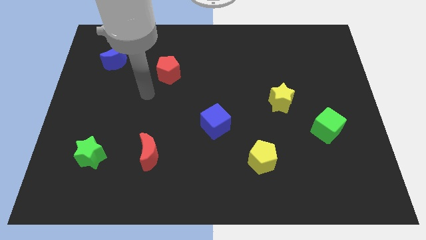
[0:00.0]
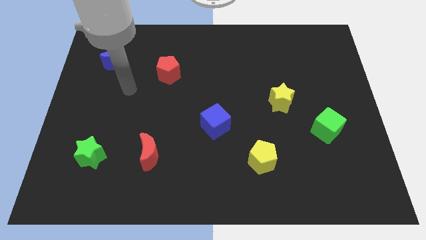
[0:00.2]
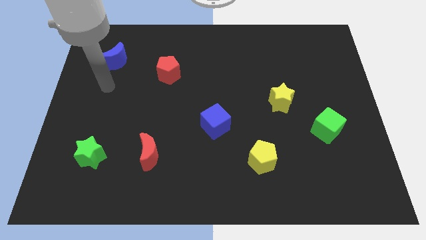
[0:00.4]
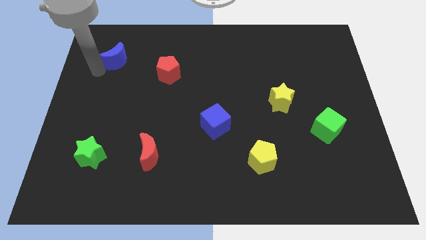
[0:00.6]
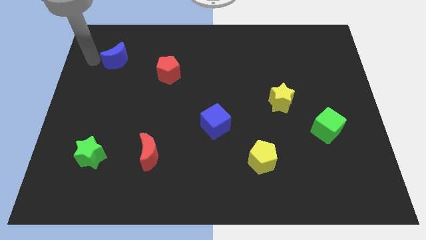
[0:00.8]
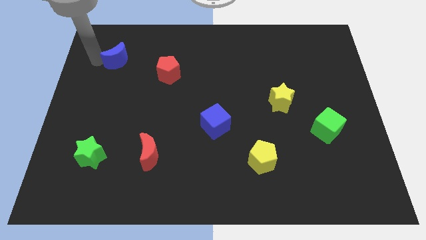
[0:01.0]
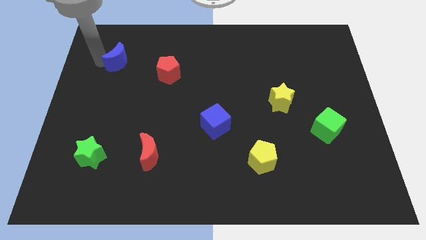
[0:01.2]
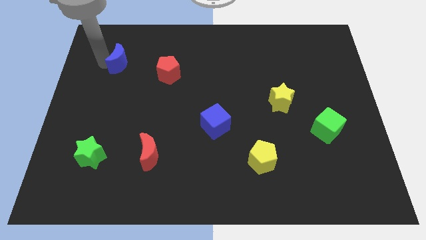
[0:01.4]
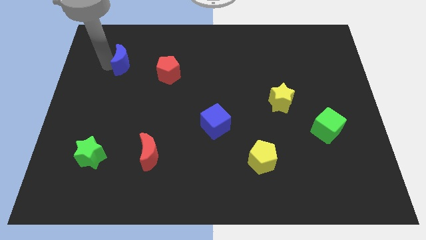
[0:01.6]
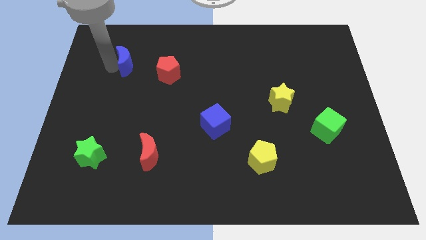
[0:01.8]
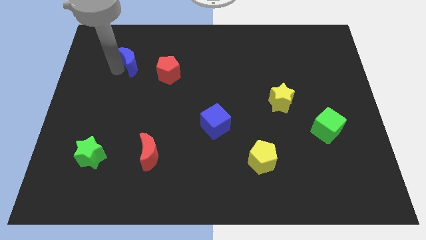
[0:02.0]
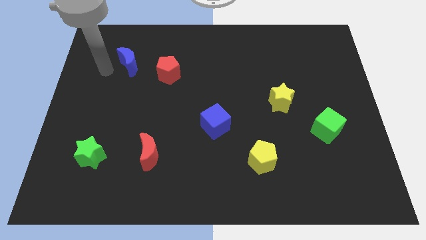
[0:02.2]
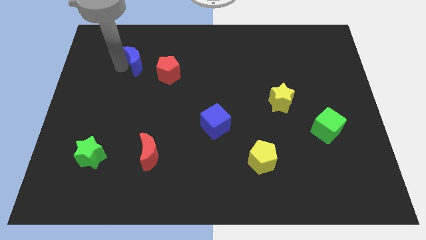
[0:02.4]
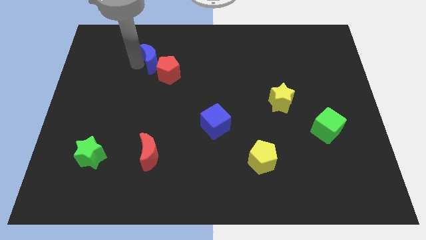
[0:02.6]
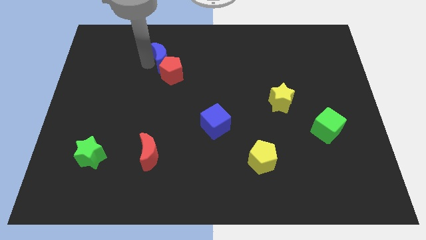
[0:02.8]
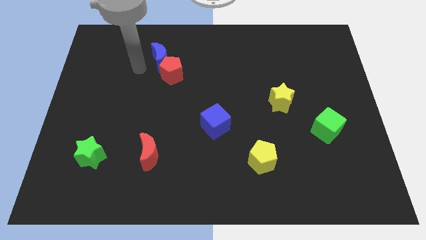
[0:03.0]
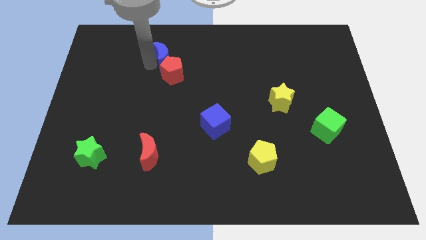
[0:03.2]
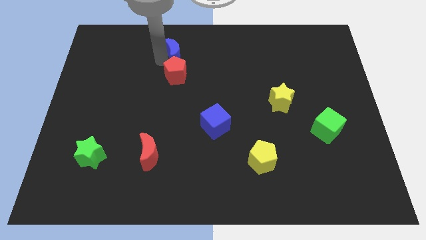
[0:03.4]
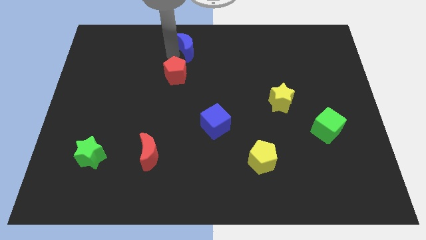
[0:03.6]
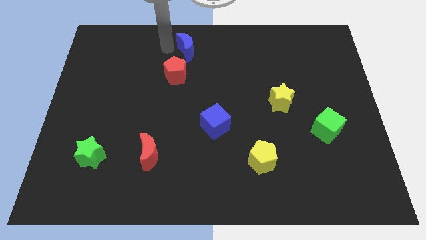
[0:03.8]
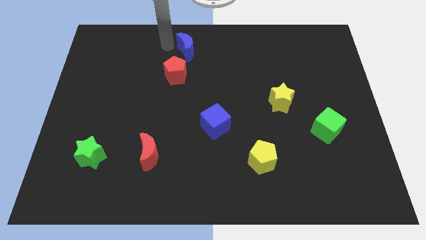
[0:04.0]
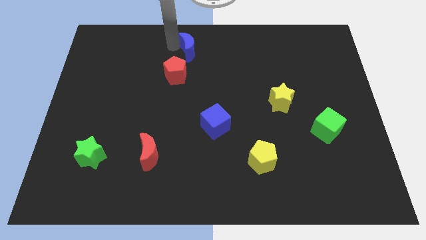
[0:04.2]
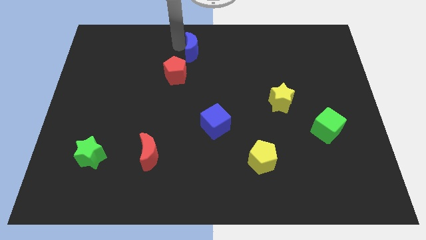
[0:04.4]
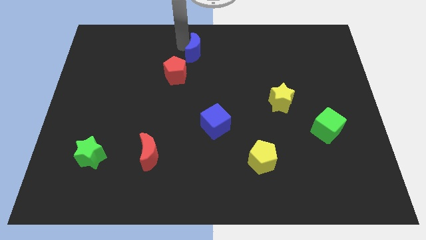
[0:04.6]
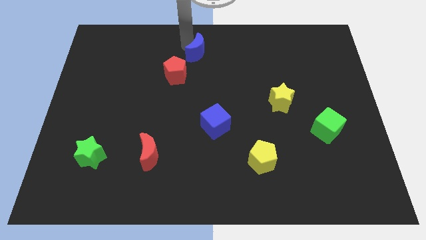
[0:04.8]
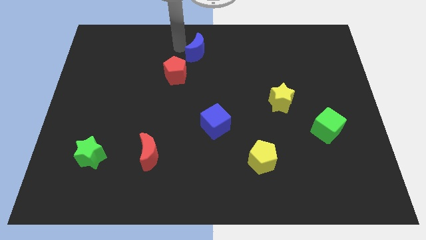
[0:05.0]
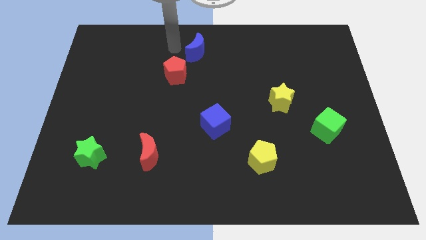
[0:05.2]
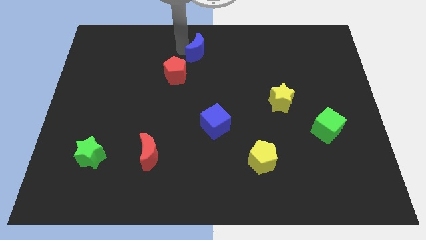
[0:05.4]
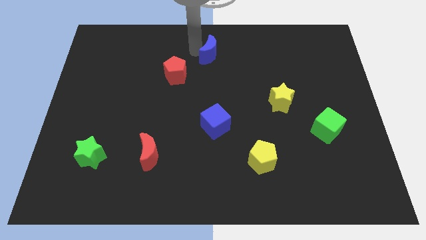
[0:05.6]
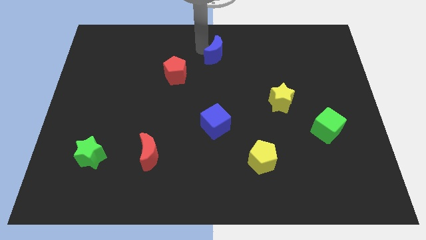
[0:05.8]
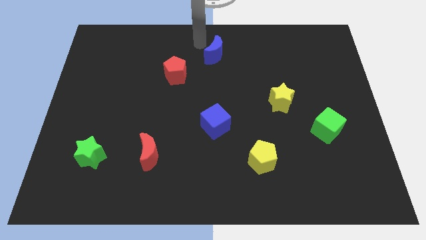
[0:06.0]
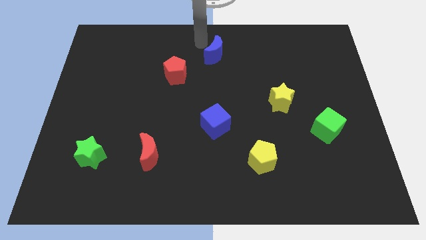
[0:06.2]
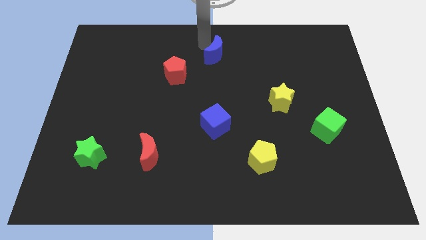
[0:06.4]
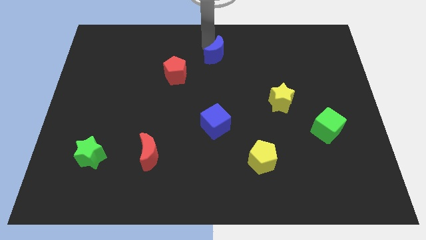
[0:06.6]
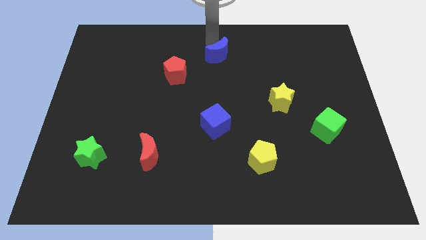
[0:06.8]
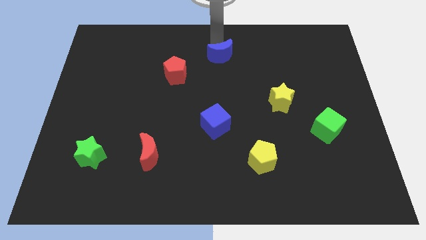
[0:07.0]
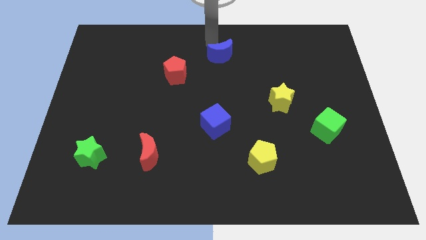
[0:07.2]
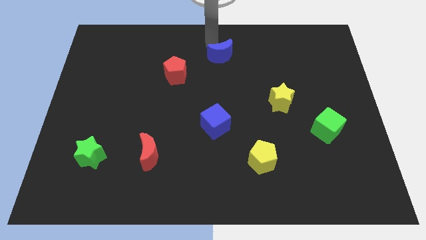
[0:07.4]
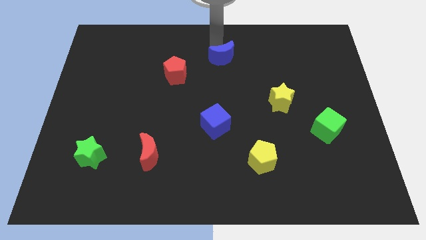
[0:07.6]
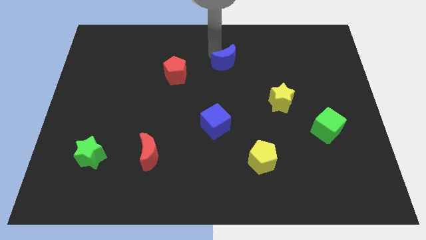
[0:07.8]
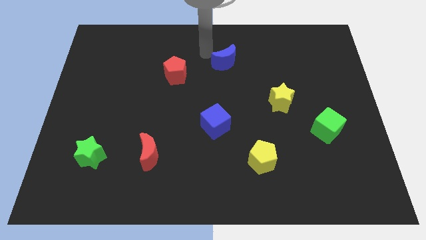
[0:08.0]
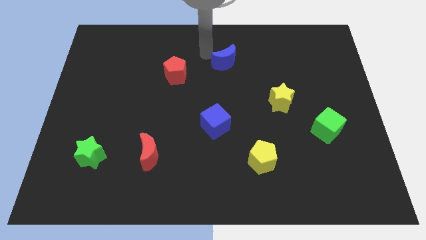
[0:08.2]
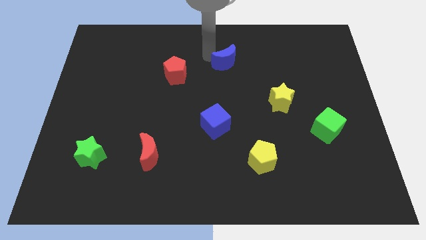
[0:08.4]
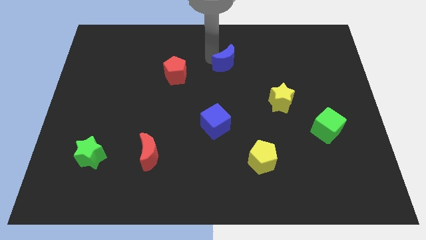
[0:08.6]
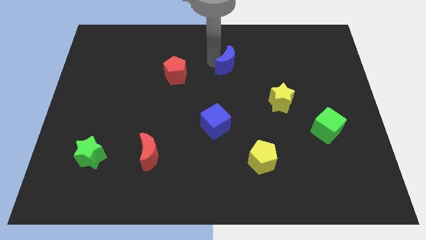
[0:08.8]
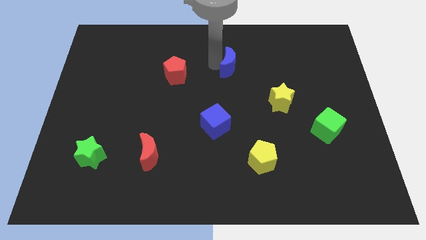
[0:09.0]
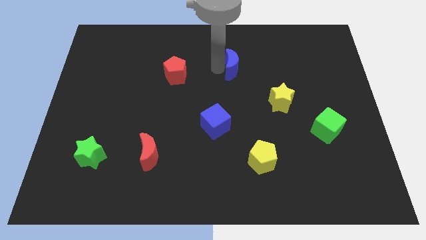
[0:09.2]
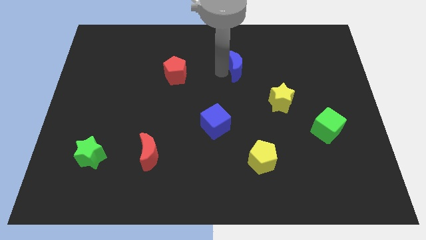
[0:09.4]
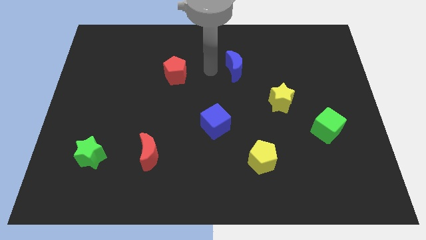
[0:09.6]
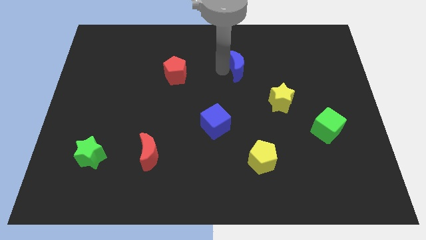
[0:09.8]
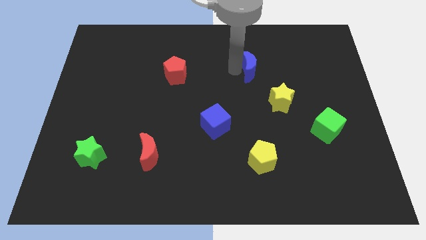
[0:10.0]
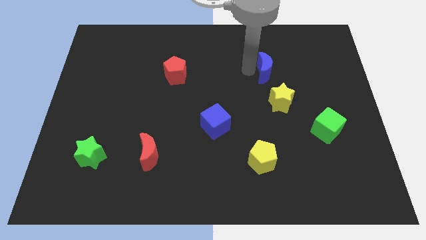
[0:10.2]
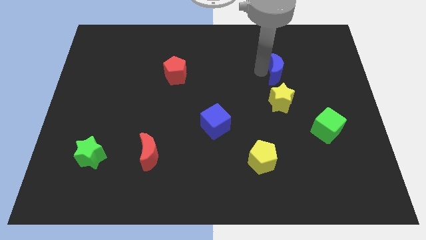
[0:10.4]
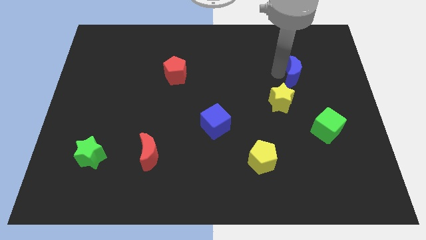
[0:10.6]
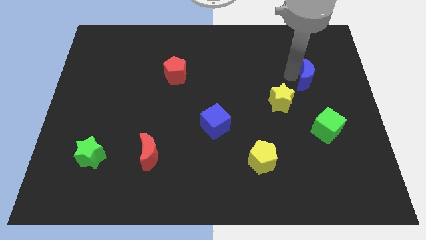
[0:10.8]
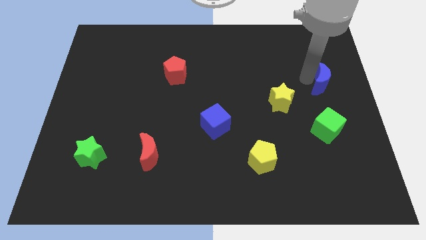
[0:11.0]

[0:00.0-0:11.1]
push the blue moon to the center right

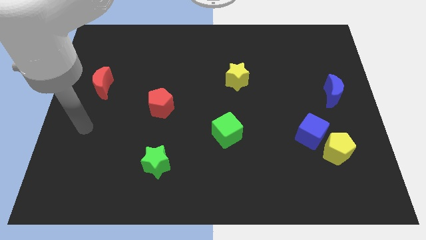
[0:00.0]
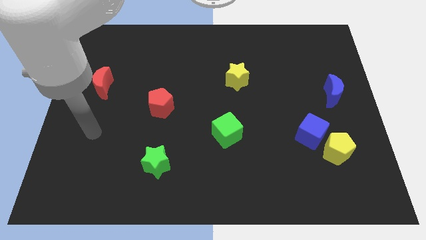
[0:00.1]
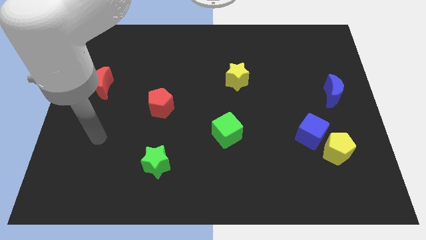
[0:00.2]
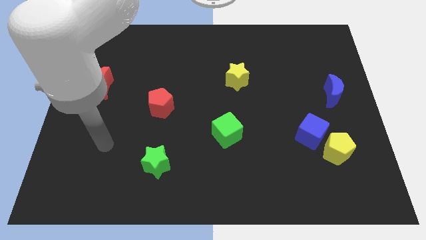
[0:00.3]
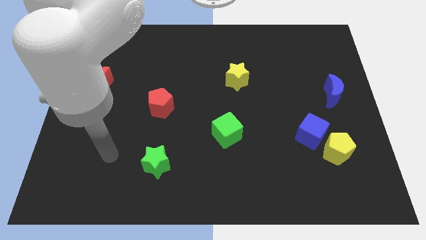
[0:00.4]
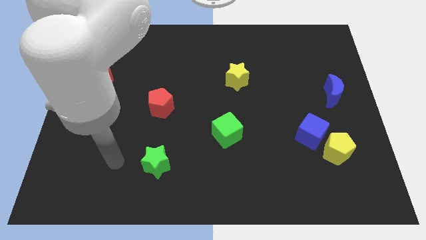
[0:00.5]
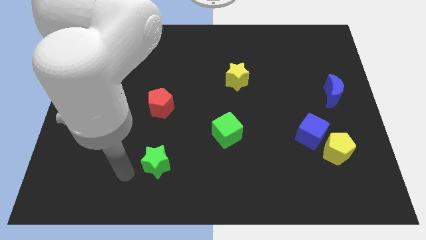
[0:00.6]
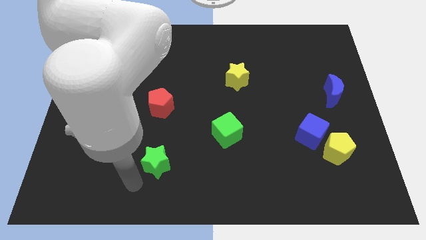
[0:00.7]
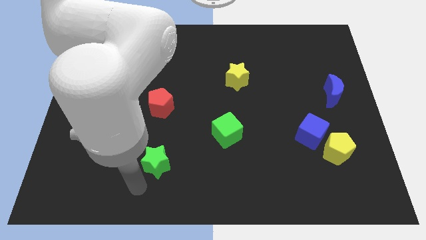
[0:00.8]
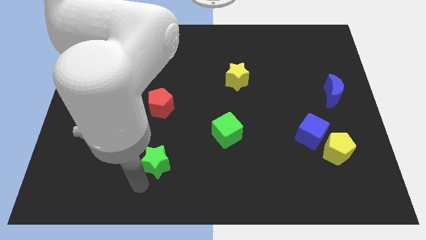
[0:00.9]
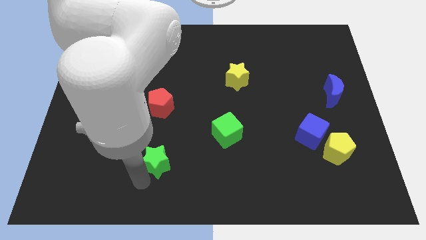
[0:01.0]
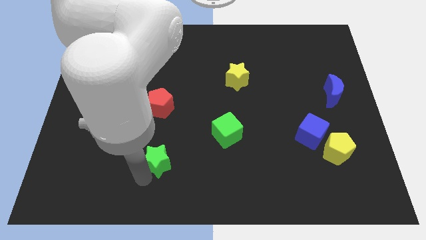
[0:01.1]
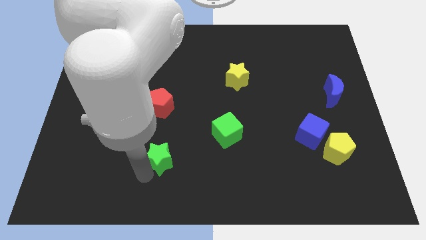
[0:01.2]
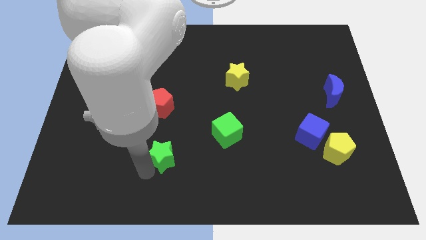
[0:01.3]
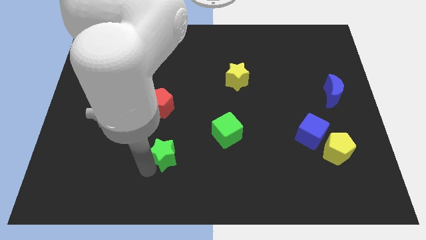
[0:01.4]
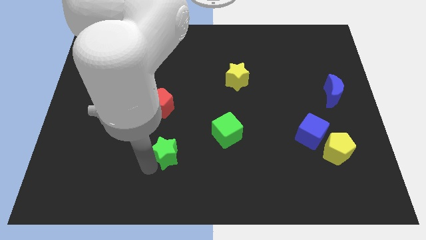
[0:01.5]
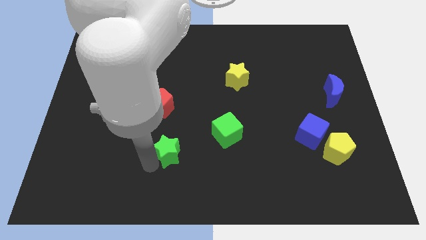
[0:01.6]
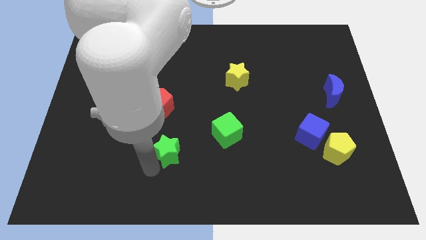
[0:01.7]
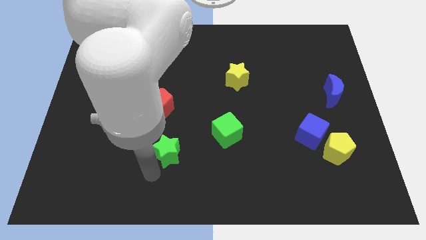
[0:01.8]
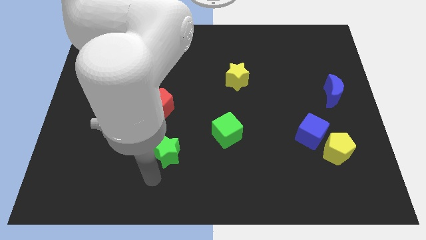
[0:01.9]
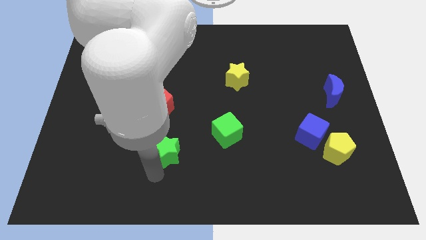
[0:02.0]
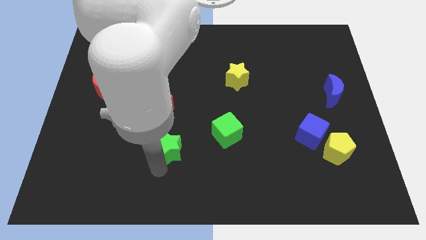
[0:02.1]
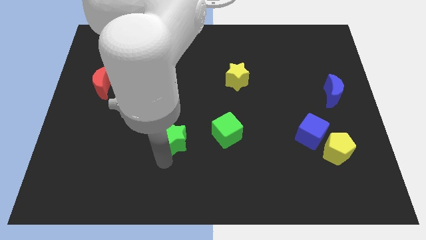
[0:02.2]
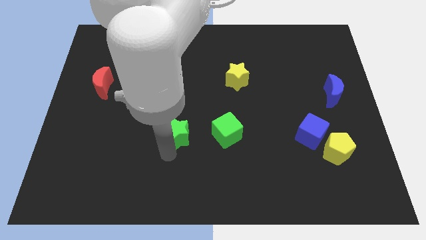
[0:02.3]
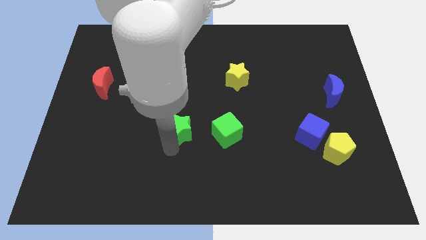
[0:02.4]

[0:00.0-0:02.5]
move the green star to the middle
